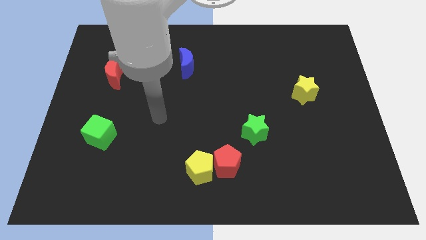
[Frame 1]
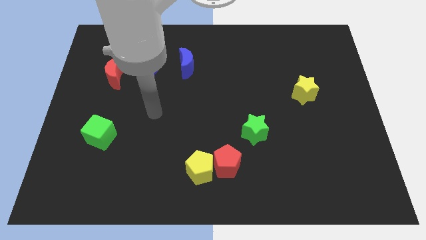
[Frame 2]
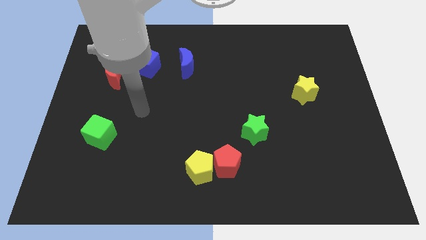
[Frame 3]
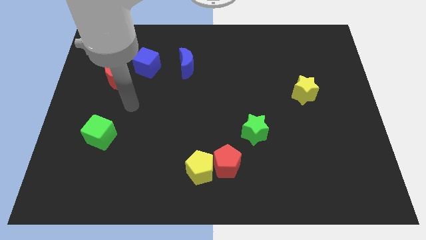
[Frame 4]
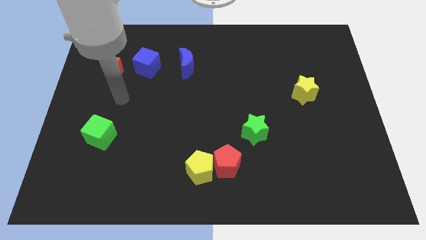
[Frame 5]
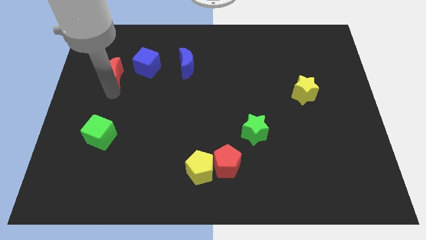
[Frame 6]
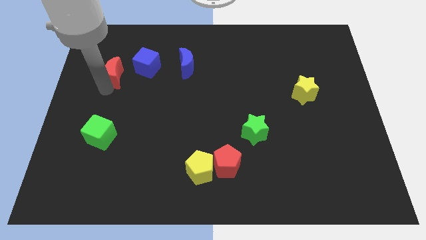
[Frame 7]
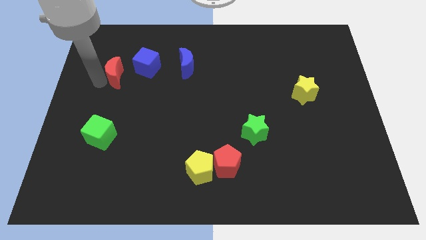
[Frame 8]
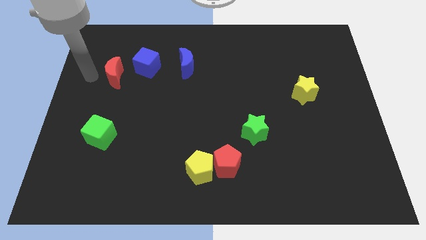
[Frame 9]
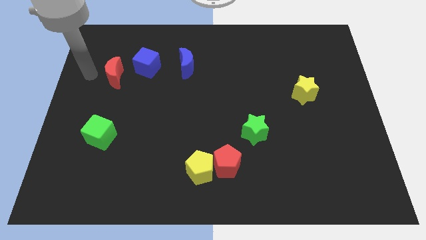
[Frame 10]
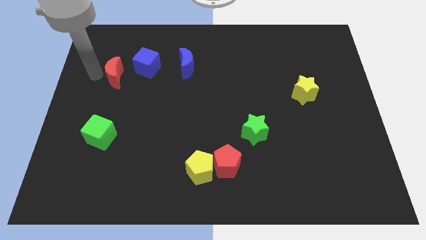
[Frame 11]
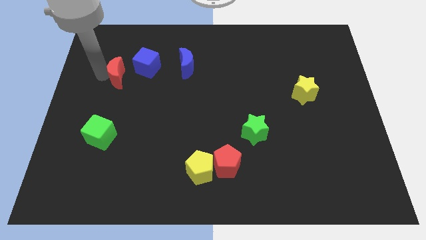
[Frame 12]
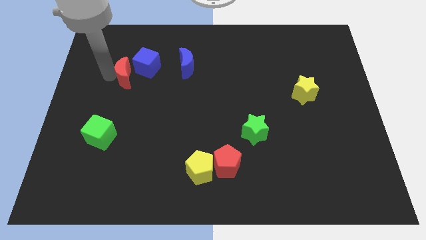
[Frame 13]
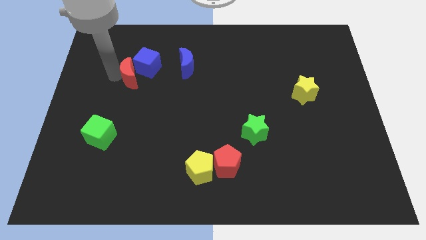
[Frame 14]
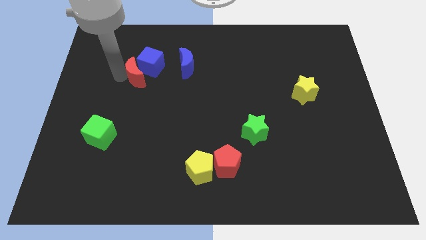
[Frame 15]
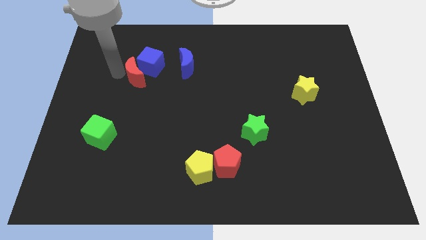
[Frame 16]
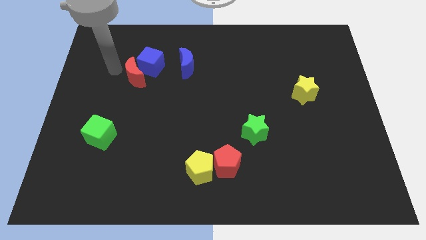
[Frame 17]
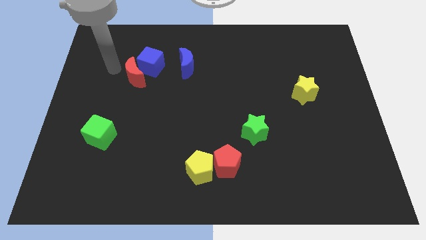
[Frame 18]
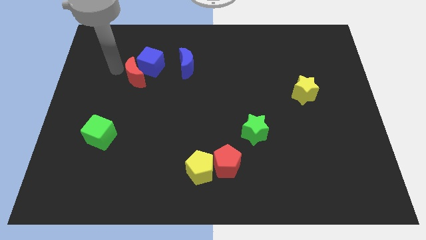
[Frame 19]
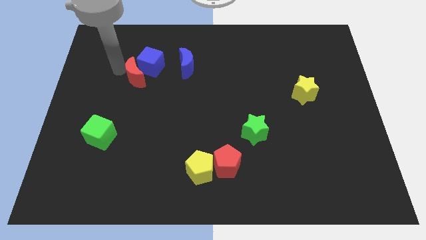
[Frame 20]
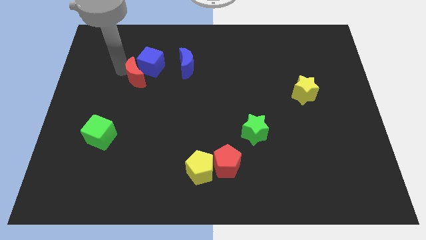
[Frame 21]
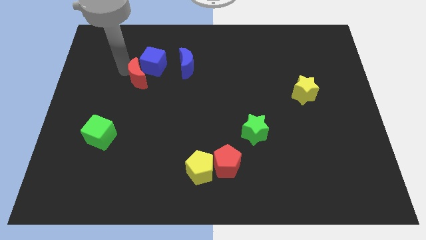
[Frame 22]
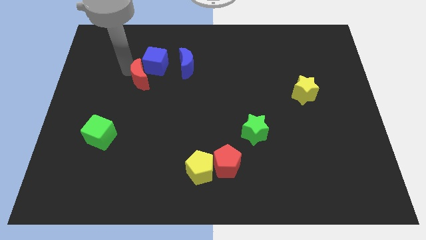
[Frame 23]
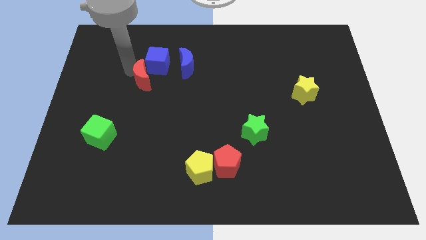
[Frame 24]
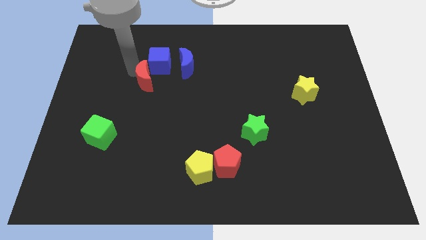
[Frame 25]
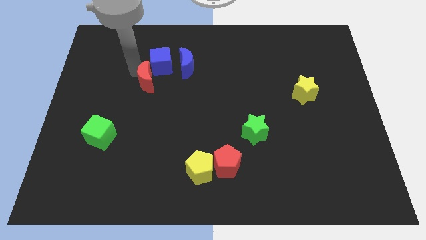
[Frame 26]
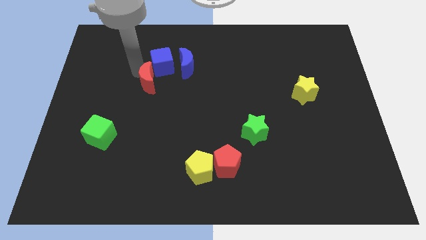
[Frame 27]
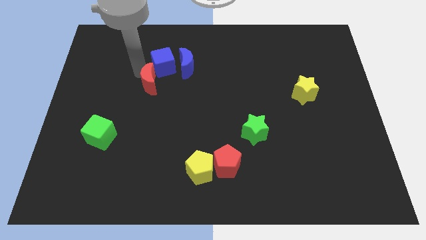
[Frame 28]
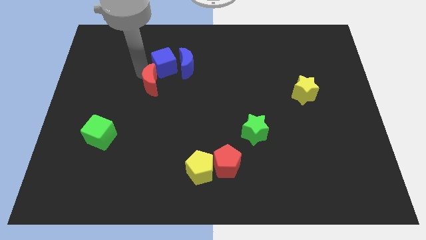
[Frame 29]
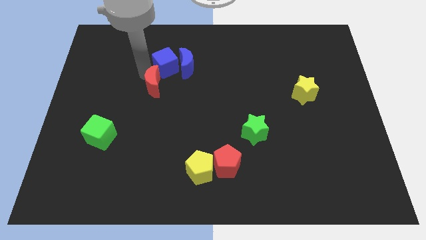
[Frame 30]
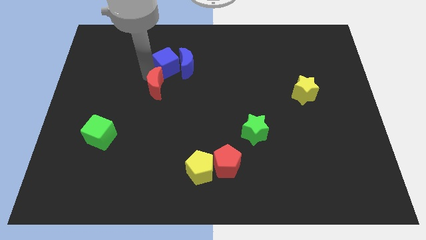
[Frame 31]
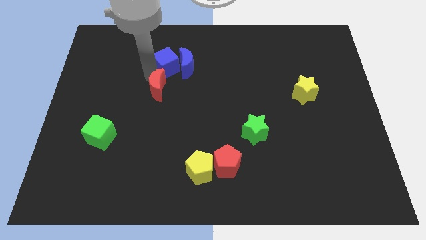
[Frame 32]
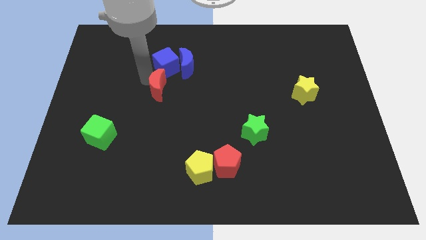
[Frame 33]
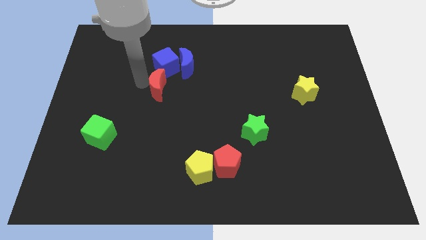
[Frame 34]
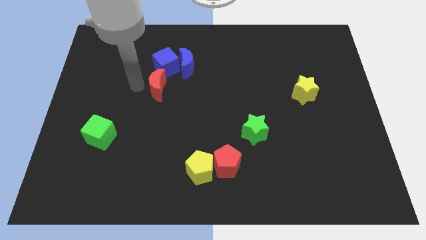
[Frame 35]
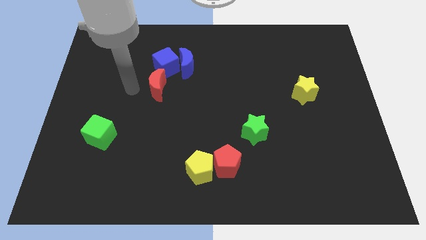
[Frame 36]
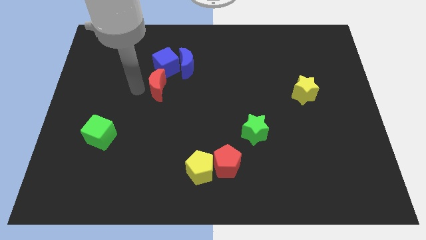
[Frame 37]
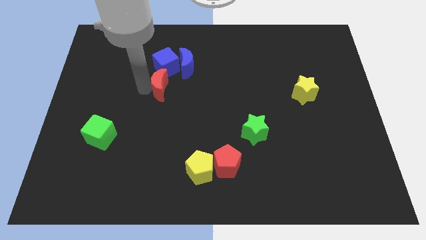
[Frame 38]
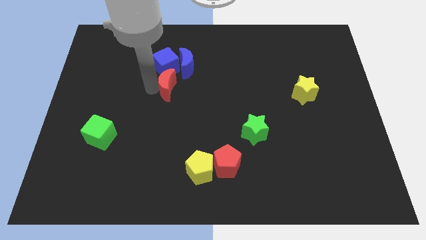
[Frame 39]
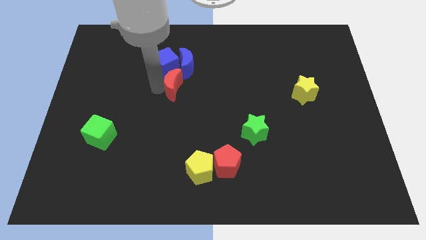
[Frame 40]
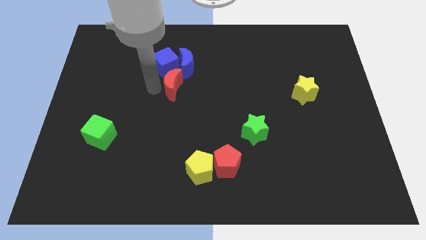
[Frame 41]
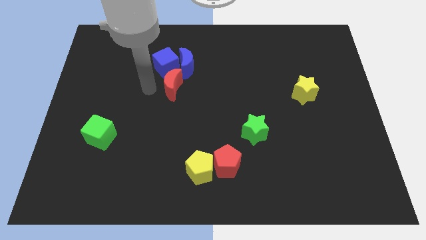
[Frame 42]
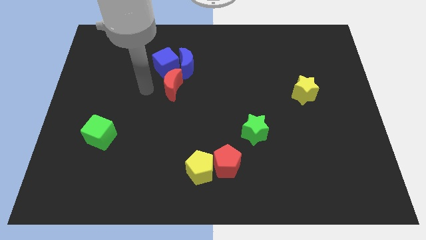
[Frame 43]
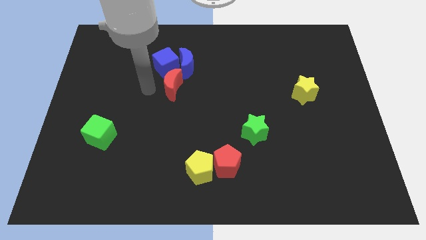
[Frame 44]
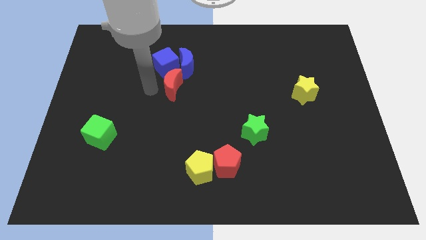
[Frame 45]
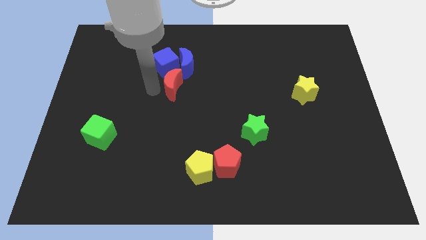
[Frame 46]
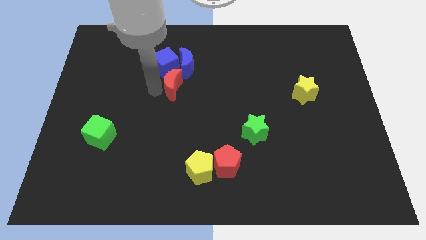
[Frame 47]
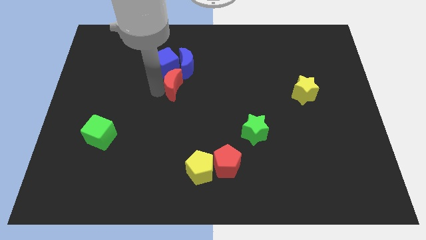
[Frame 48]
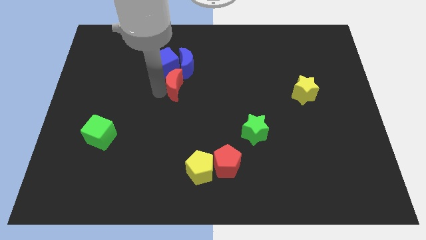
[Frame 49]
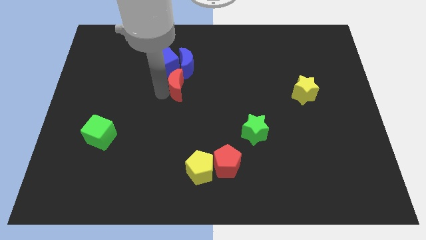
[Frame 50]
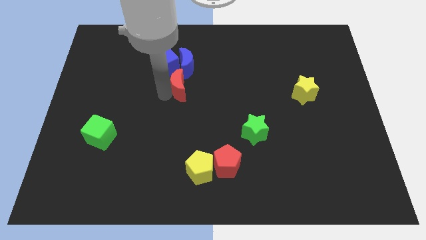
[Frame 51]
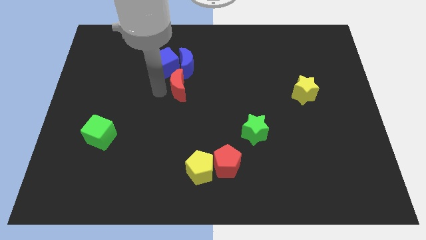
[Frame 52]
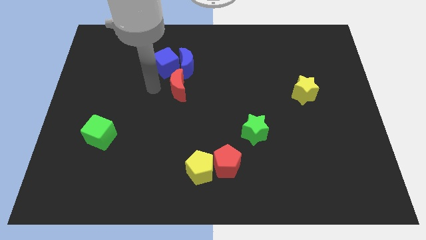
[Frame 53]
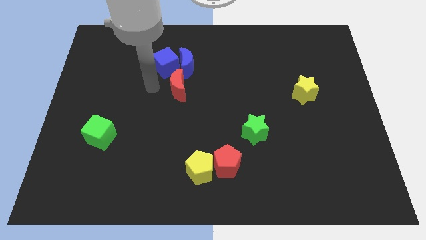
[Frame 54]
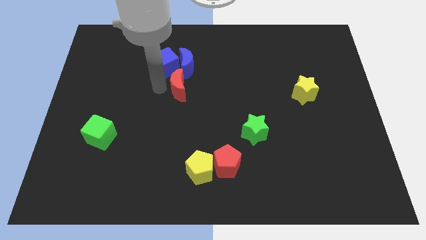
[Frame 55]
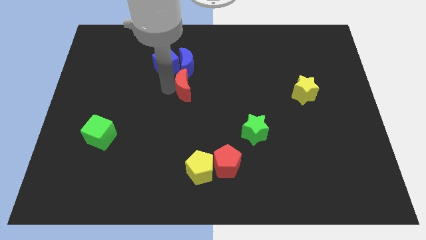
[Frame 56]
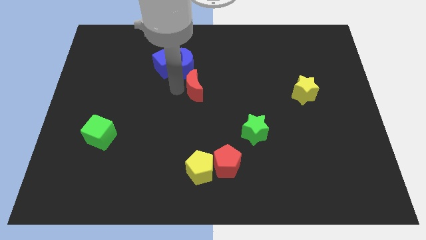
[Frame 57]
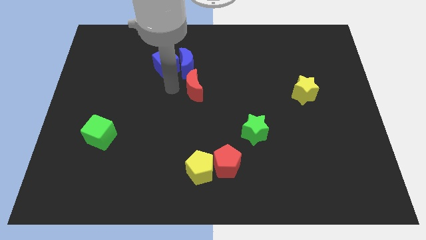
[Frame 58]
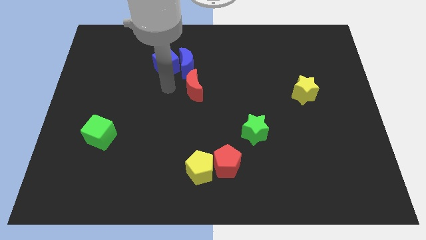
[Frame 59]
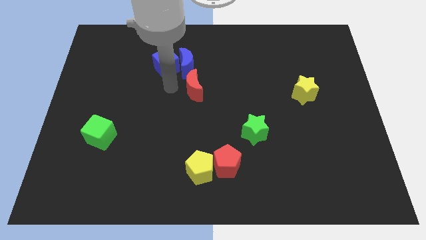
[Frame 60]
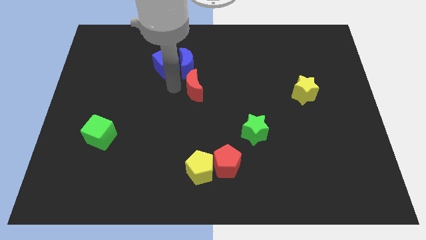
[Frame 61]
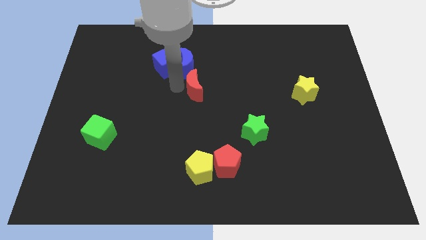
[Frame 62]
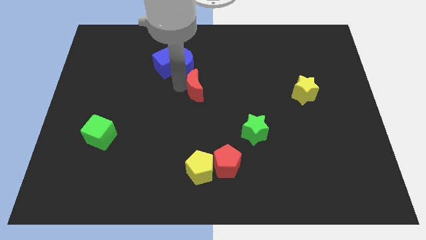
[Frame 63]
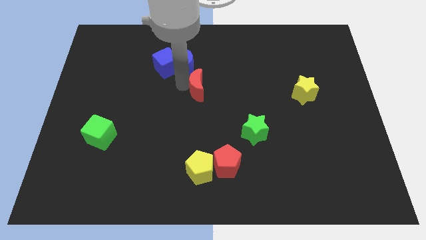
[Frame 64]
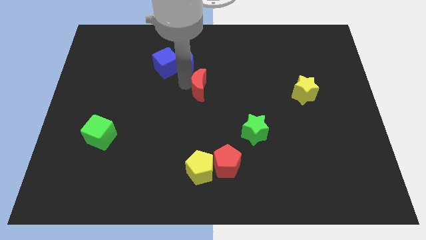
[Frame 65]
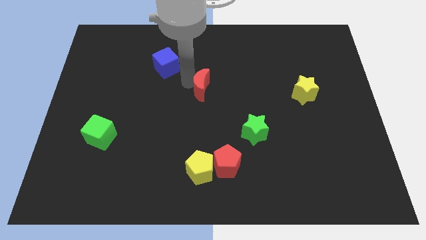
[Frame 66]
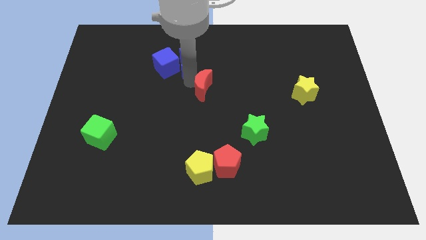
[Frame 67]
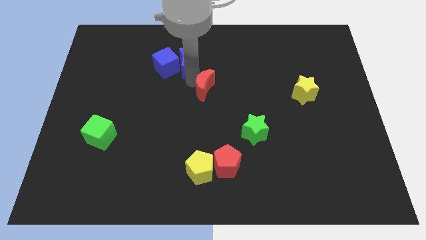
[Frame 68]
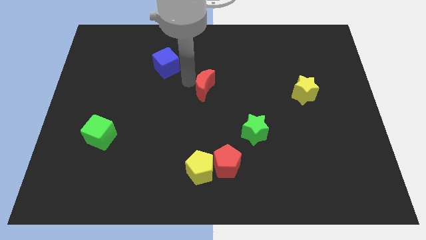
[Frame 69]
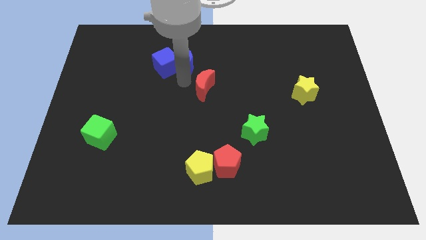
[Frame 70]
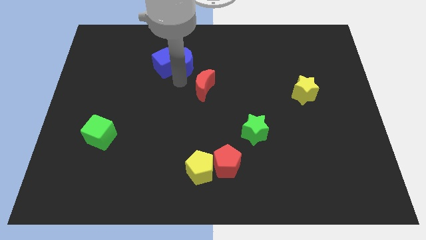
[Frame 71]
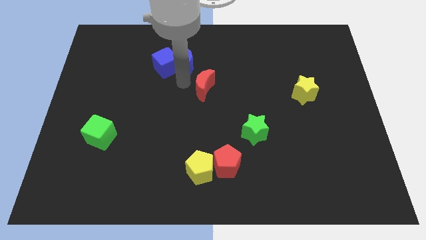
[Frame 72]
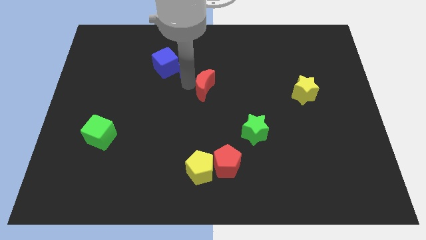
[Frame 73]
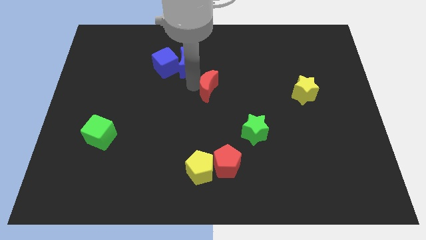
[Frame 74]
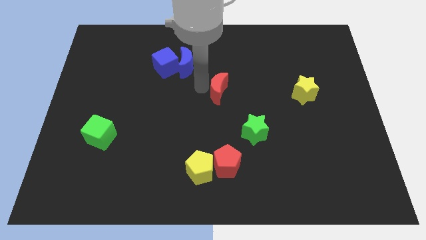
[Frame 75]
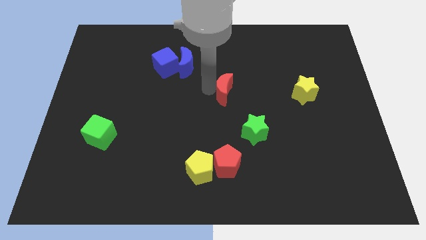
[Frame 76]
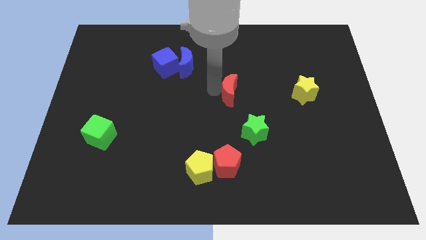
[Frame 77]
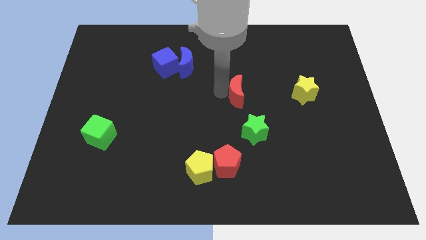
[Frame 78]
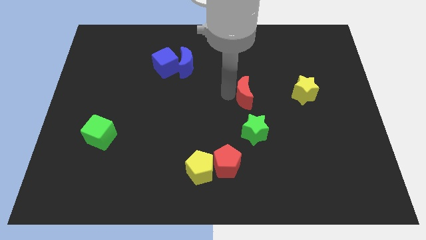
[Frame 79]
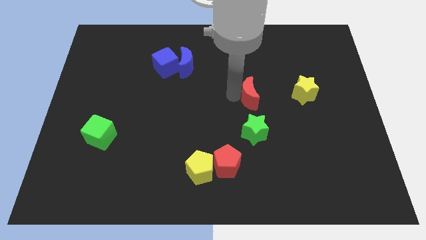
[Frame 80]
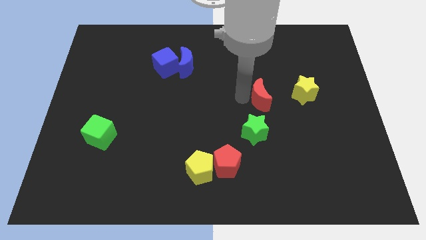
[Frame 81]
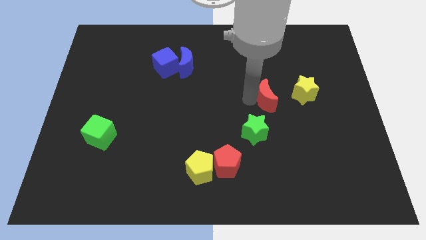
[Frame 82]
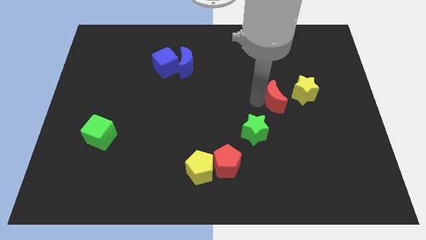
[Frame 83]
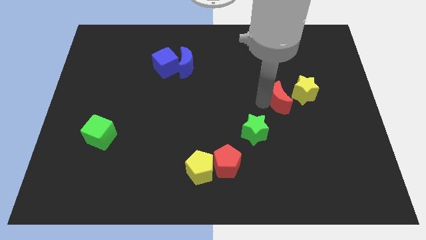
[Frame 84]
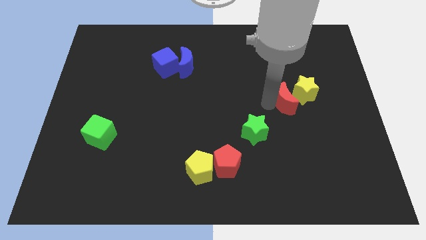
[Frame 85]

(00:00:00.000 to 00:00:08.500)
move the red moon next to the yellow star
